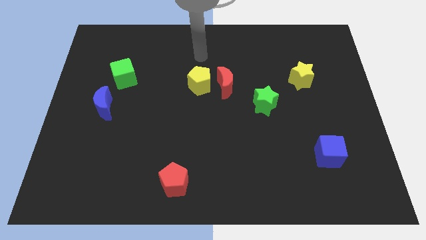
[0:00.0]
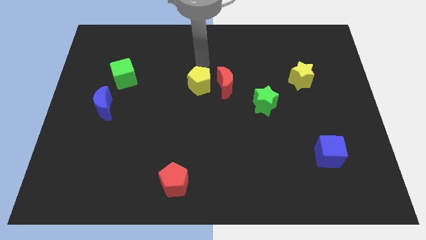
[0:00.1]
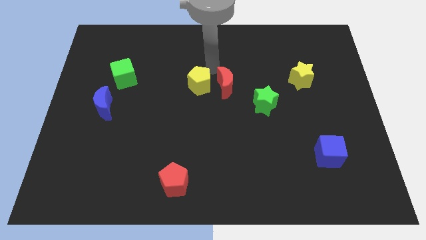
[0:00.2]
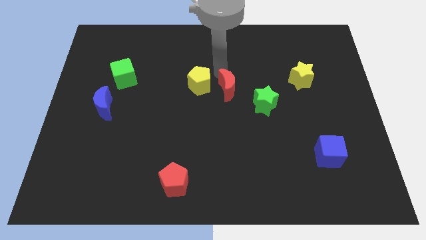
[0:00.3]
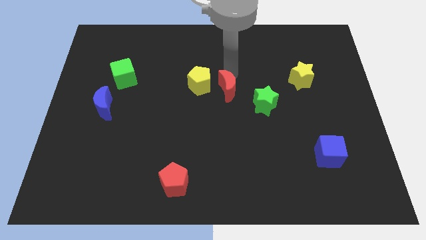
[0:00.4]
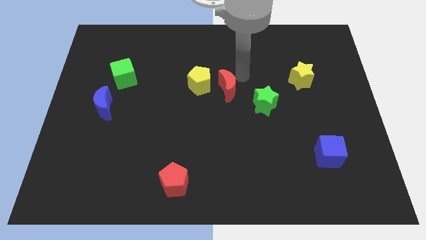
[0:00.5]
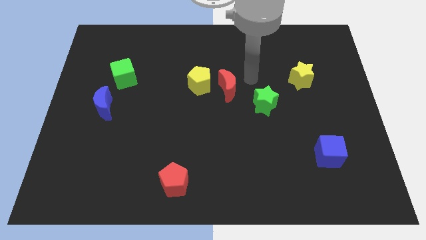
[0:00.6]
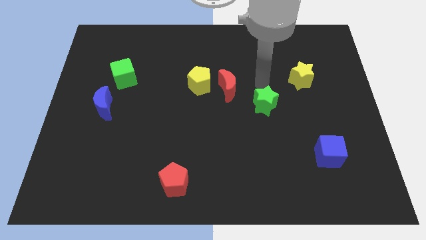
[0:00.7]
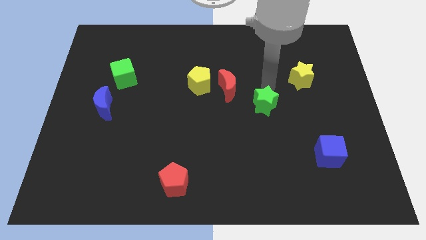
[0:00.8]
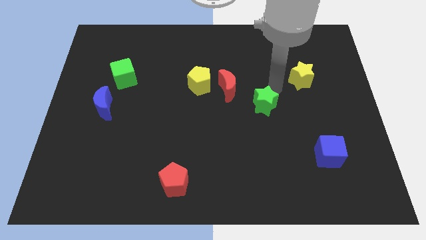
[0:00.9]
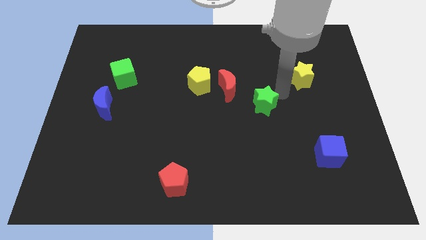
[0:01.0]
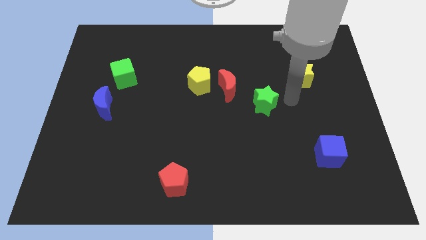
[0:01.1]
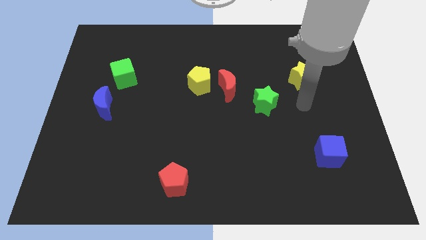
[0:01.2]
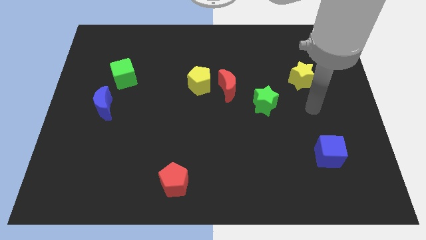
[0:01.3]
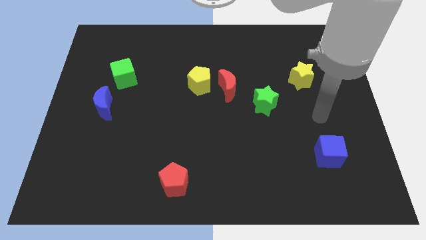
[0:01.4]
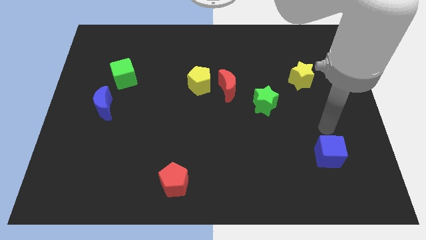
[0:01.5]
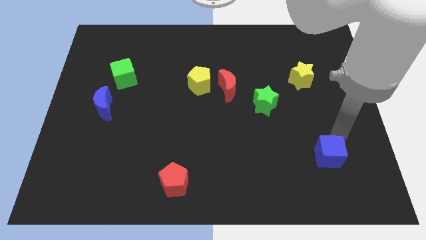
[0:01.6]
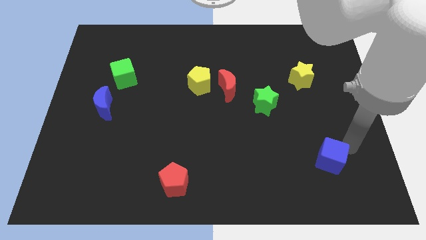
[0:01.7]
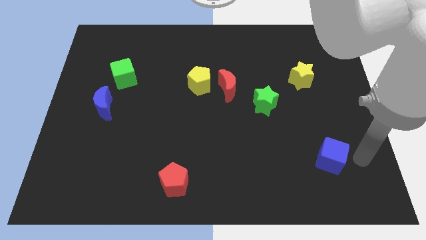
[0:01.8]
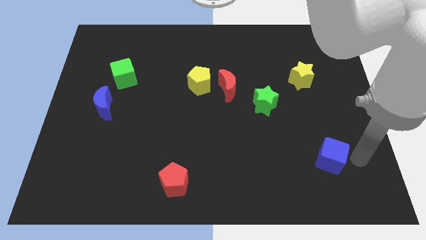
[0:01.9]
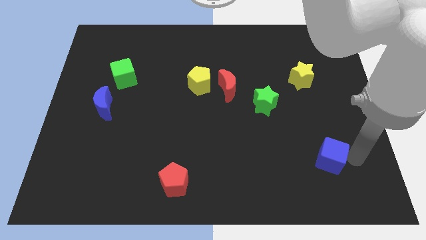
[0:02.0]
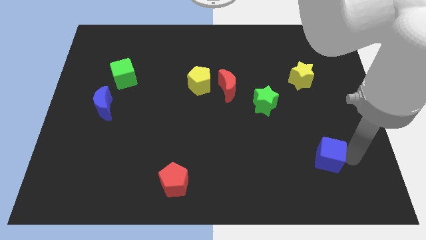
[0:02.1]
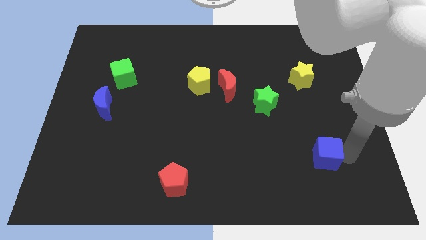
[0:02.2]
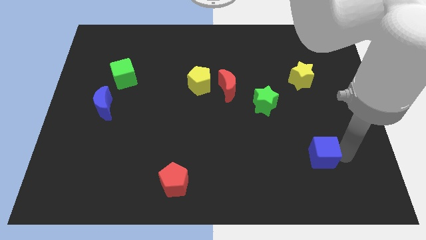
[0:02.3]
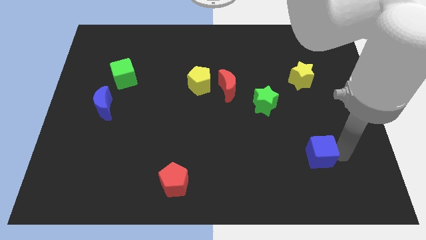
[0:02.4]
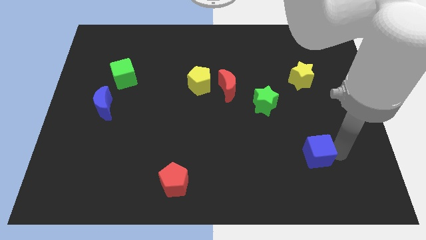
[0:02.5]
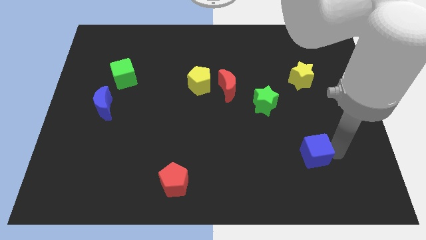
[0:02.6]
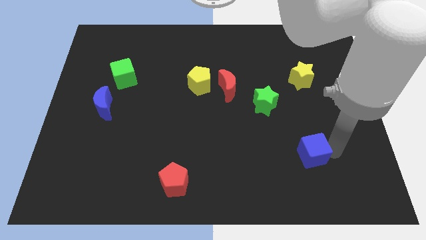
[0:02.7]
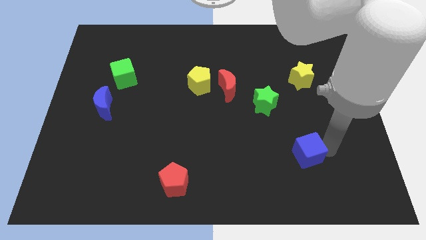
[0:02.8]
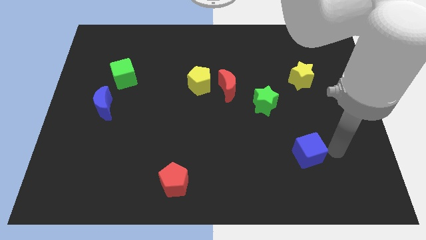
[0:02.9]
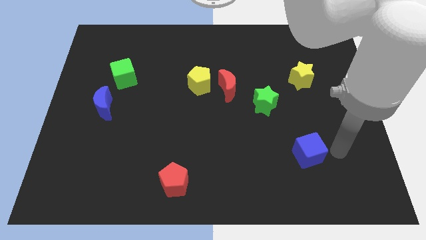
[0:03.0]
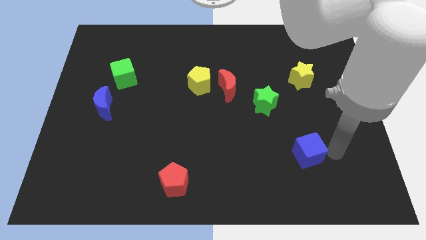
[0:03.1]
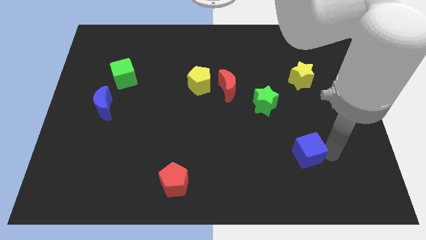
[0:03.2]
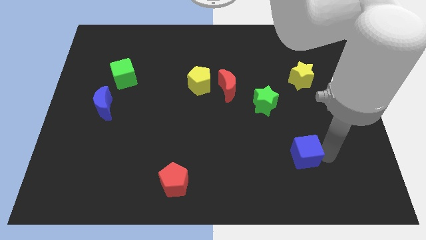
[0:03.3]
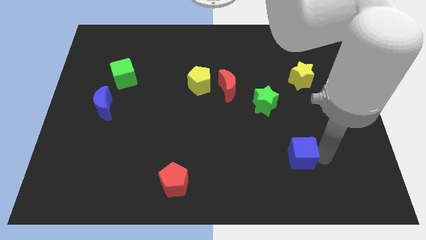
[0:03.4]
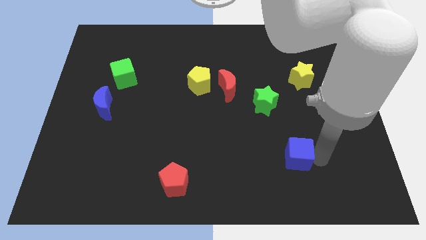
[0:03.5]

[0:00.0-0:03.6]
push the blue cube to the left a bit

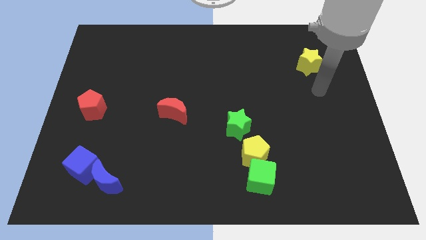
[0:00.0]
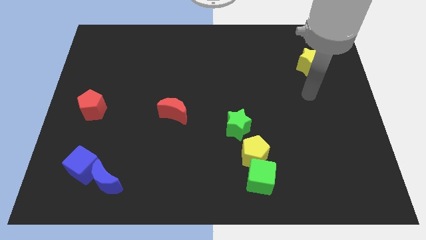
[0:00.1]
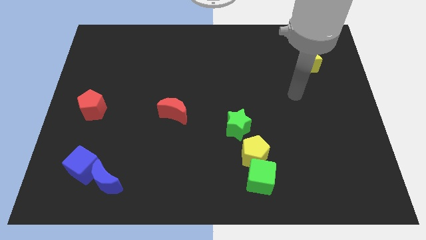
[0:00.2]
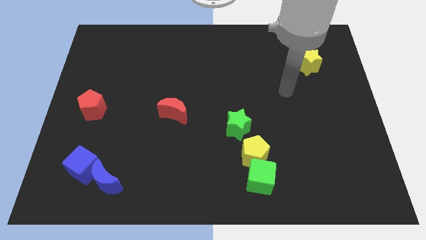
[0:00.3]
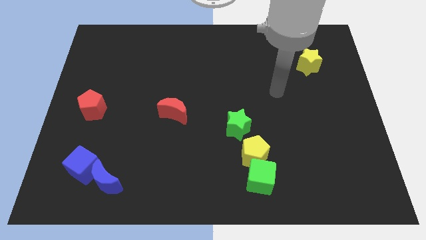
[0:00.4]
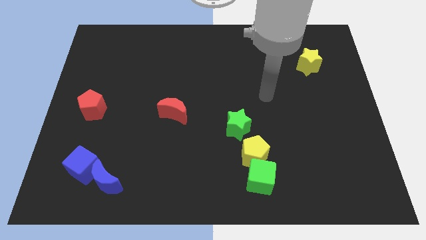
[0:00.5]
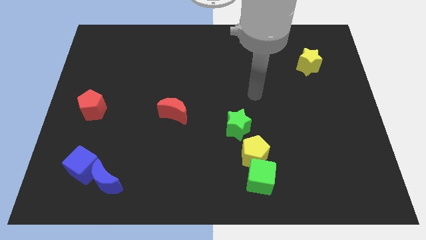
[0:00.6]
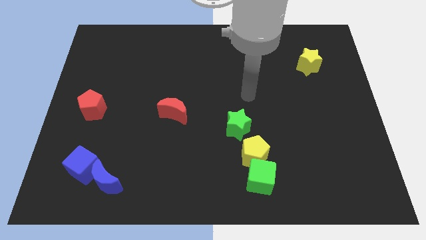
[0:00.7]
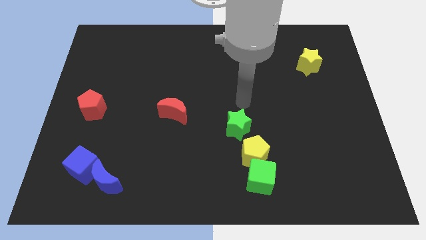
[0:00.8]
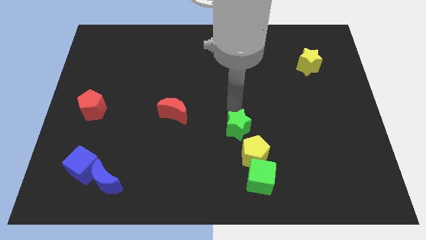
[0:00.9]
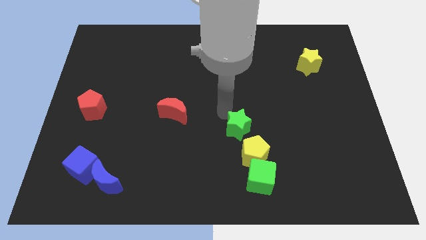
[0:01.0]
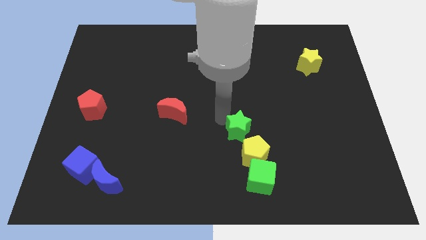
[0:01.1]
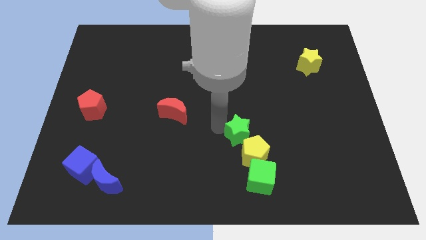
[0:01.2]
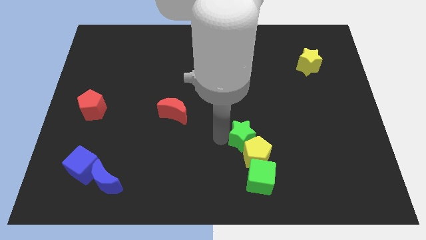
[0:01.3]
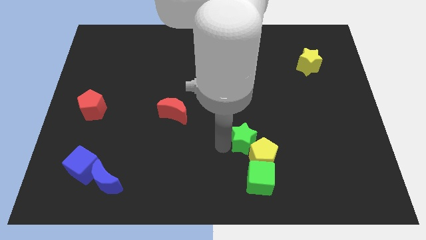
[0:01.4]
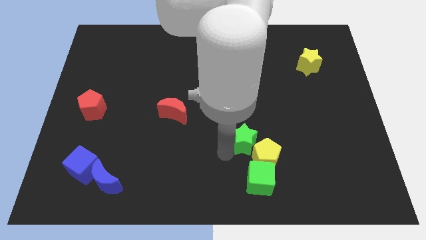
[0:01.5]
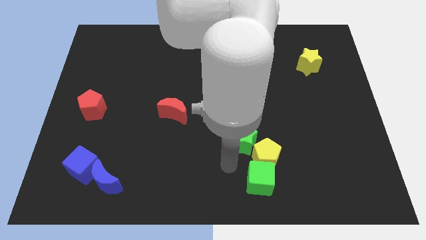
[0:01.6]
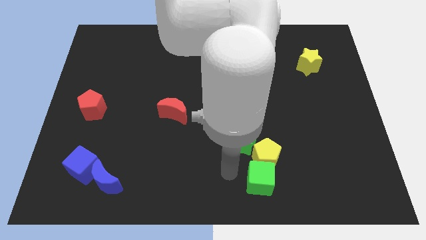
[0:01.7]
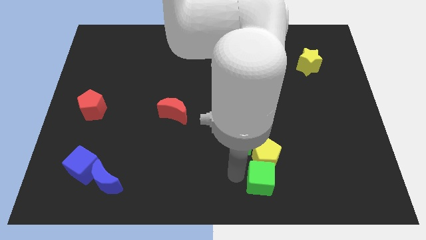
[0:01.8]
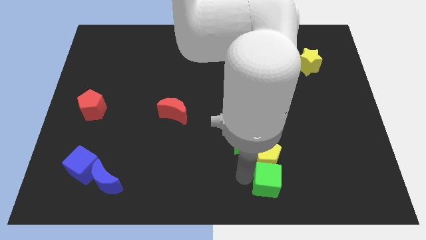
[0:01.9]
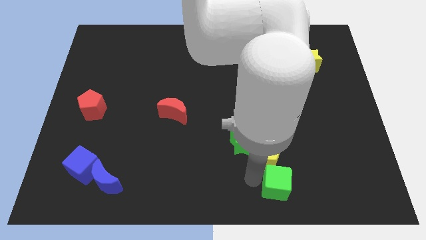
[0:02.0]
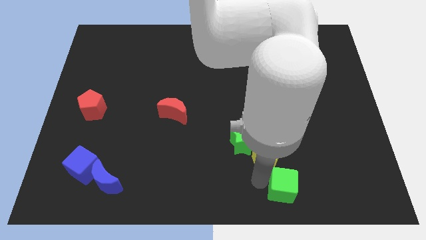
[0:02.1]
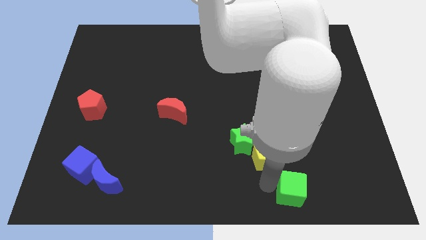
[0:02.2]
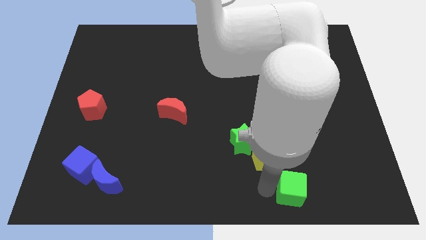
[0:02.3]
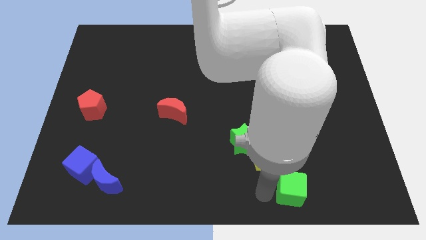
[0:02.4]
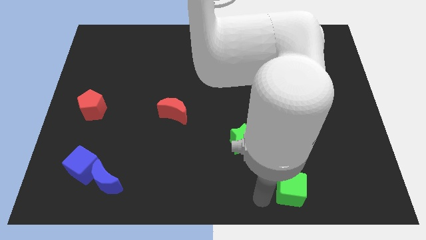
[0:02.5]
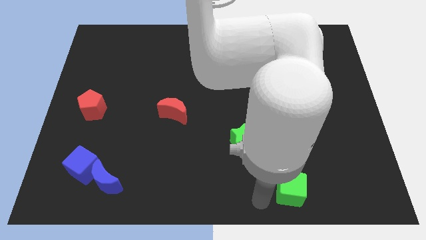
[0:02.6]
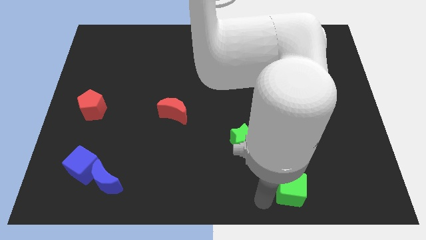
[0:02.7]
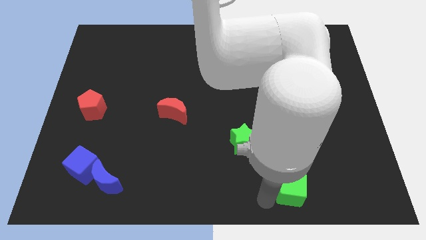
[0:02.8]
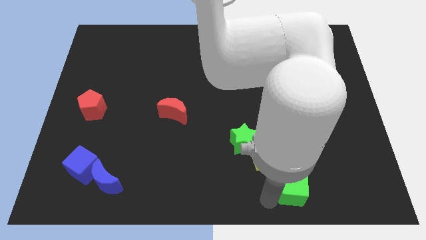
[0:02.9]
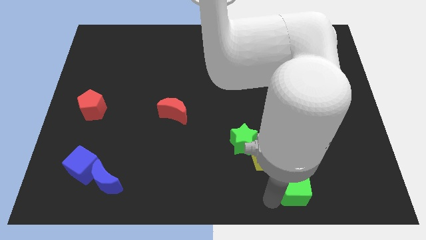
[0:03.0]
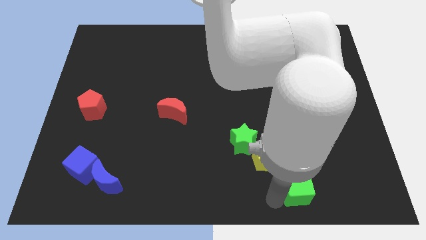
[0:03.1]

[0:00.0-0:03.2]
slightly push the green cube right

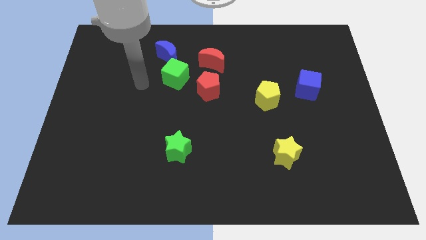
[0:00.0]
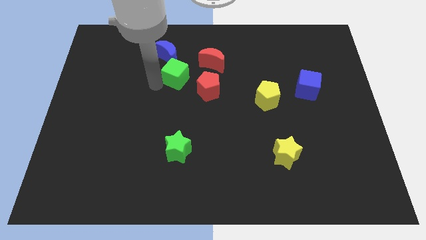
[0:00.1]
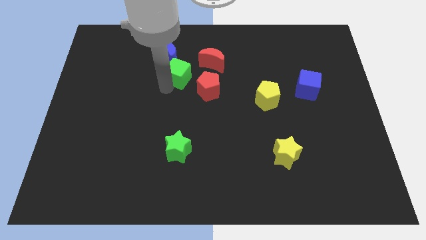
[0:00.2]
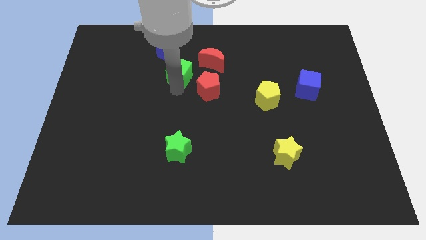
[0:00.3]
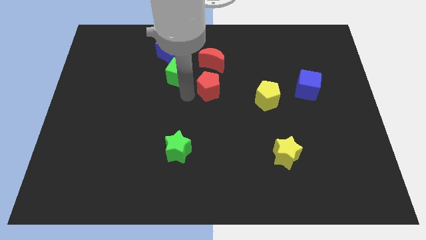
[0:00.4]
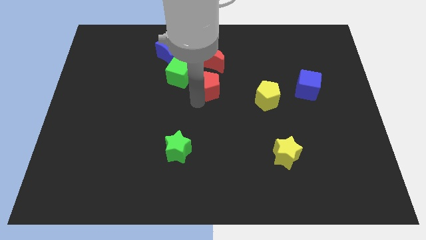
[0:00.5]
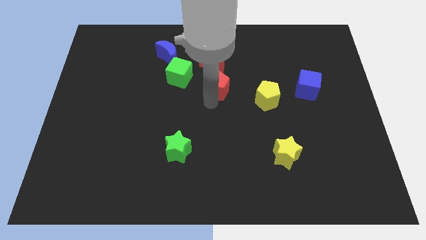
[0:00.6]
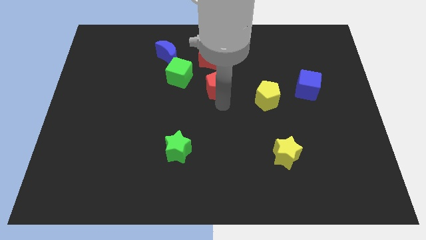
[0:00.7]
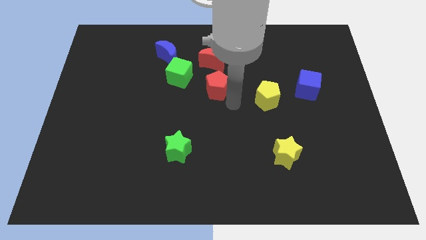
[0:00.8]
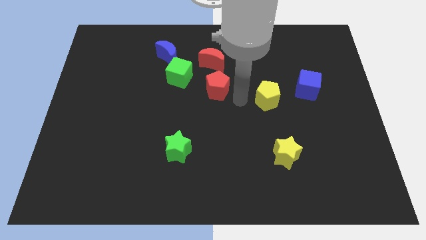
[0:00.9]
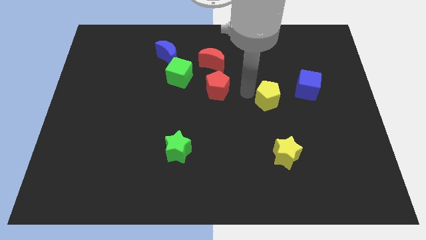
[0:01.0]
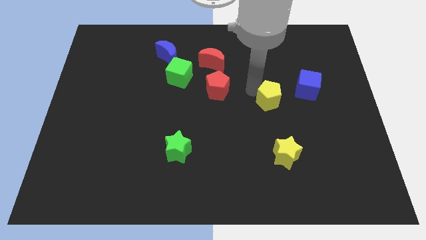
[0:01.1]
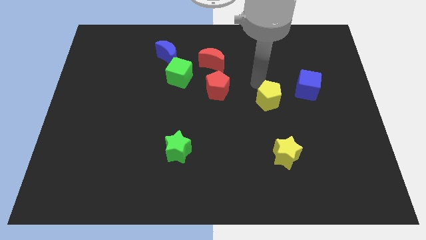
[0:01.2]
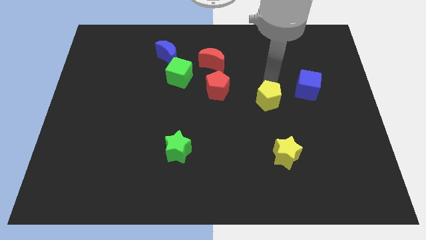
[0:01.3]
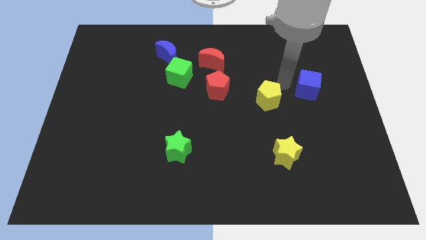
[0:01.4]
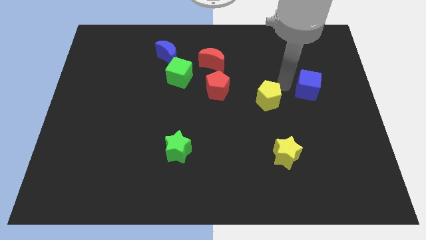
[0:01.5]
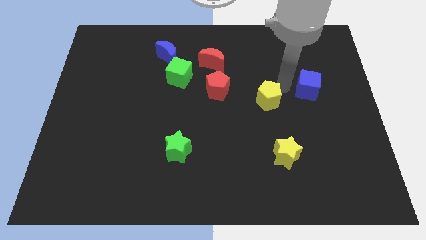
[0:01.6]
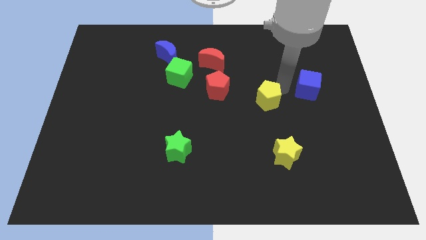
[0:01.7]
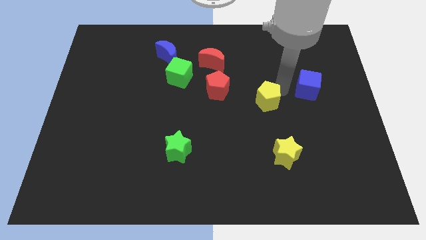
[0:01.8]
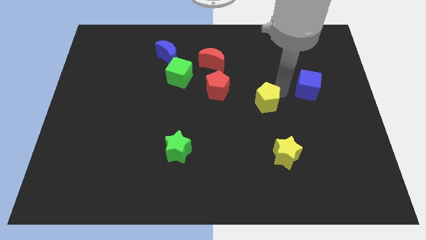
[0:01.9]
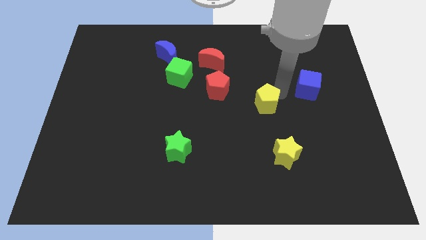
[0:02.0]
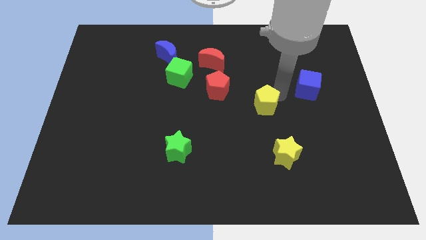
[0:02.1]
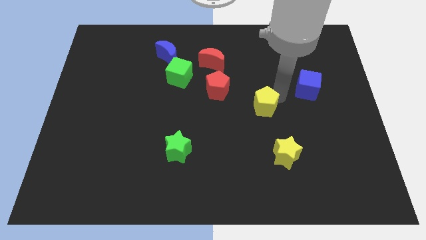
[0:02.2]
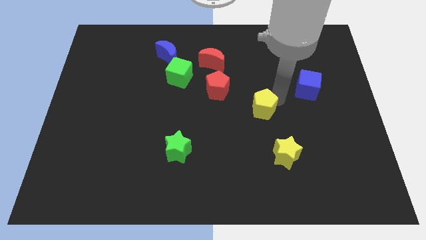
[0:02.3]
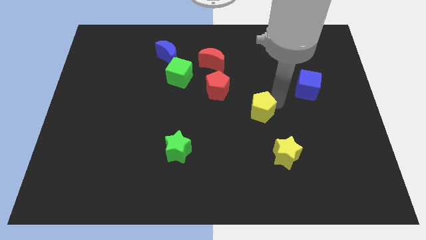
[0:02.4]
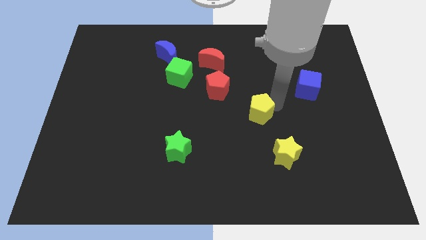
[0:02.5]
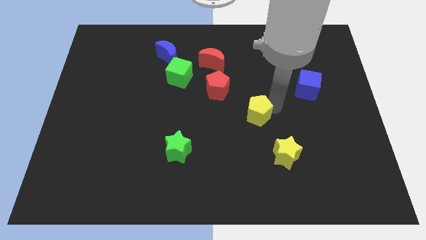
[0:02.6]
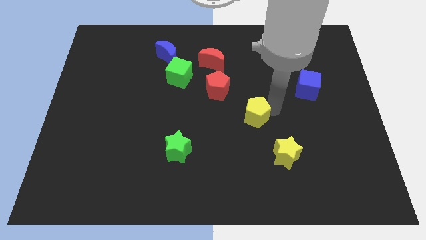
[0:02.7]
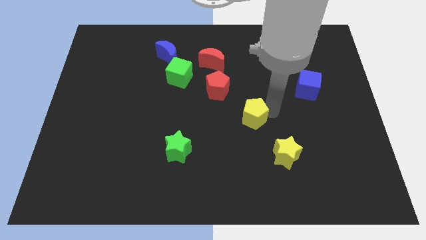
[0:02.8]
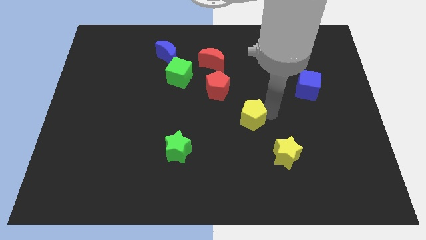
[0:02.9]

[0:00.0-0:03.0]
slightly push the yellow pentagon diagonally down and to the left
